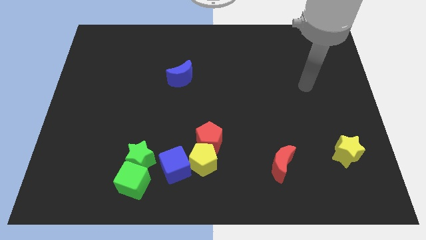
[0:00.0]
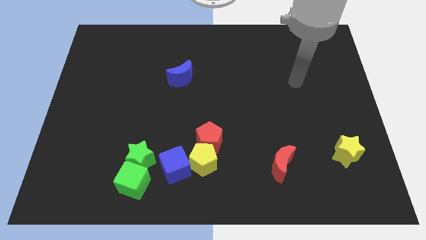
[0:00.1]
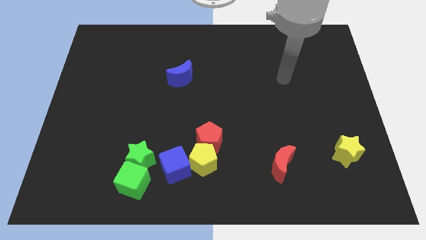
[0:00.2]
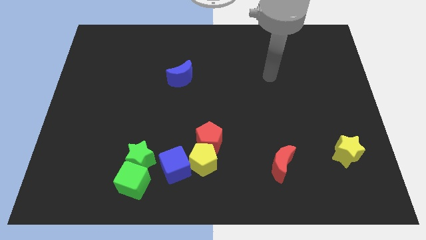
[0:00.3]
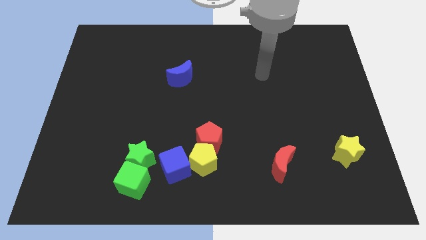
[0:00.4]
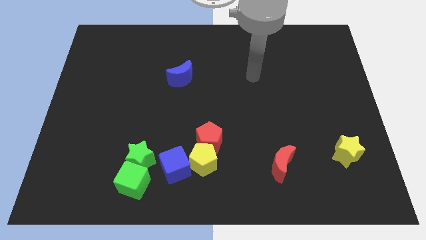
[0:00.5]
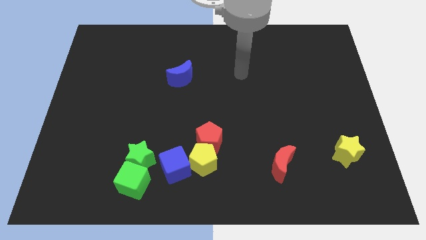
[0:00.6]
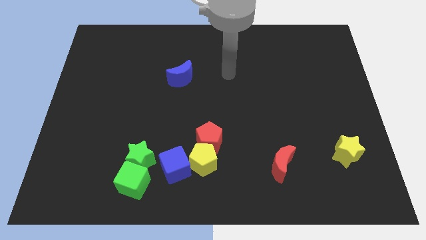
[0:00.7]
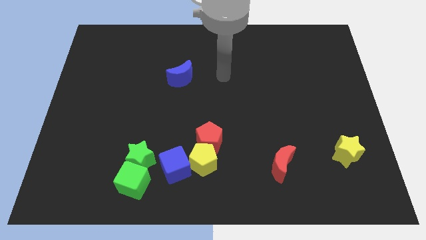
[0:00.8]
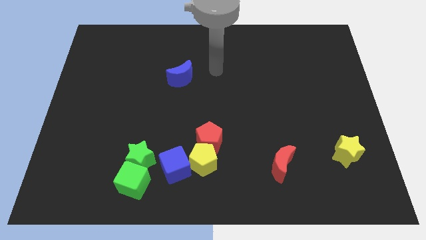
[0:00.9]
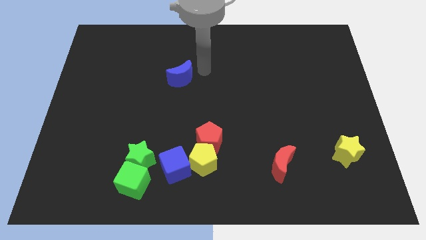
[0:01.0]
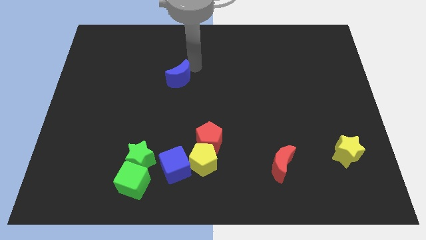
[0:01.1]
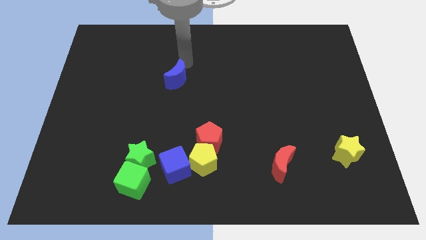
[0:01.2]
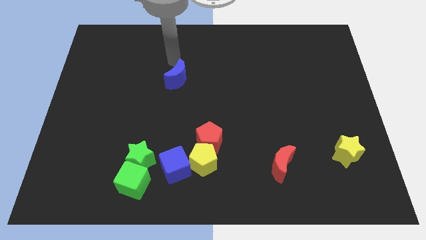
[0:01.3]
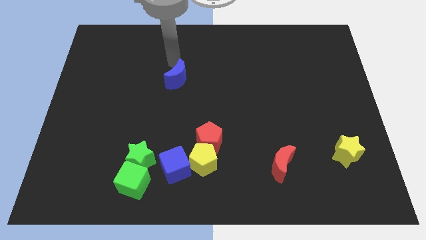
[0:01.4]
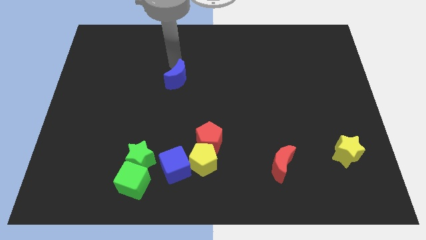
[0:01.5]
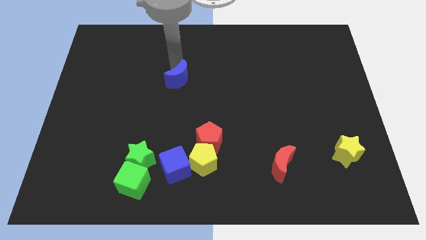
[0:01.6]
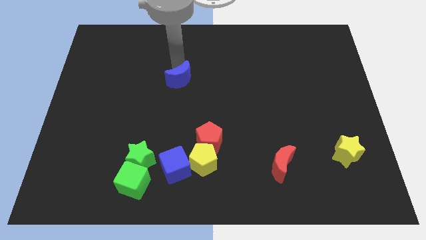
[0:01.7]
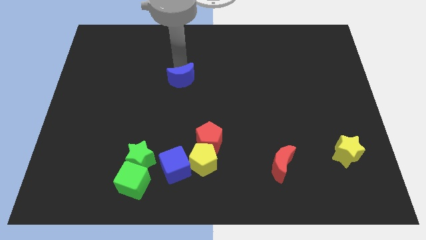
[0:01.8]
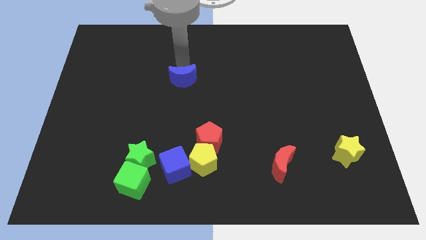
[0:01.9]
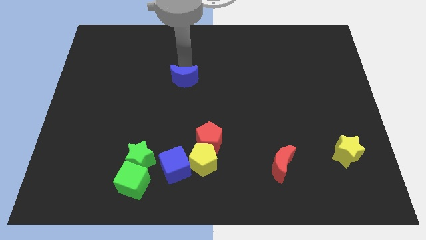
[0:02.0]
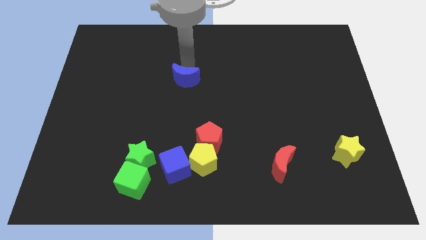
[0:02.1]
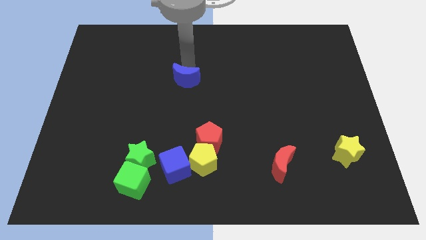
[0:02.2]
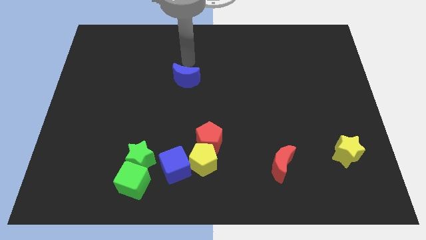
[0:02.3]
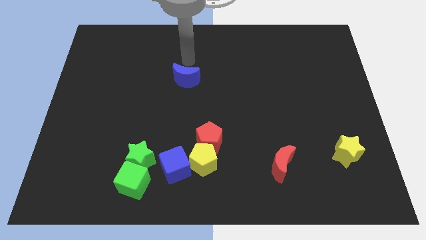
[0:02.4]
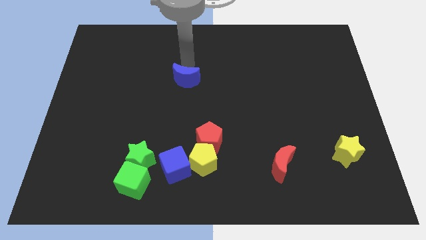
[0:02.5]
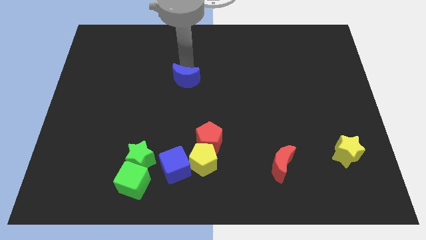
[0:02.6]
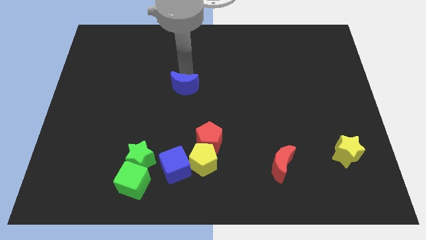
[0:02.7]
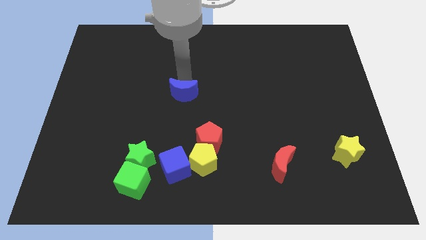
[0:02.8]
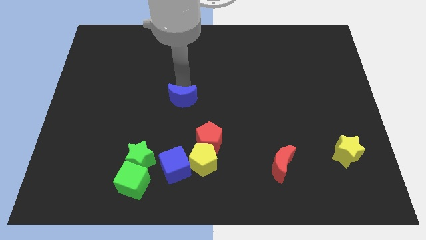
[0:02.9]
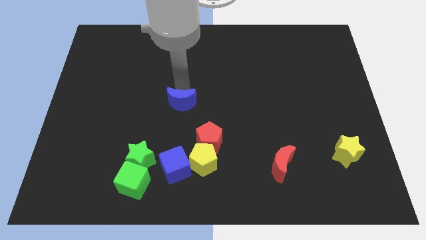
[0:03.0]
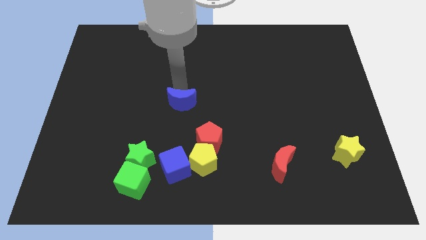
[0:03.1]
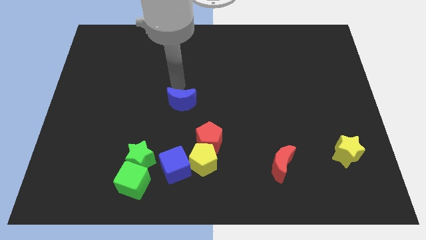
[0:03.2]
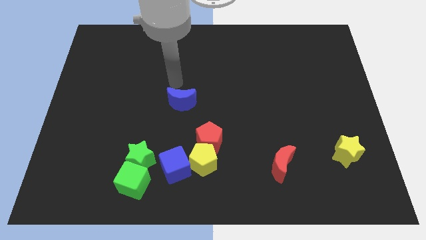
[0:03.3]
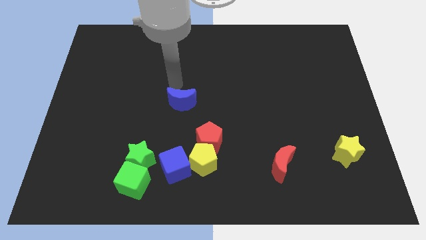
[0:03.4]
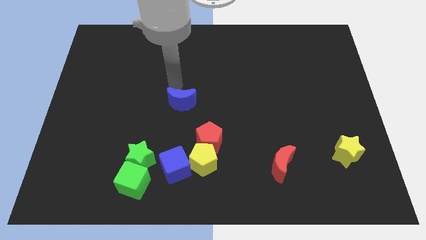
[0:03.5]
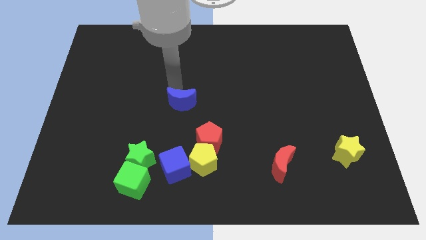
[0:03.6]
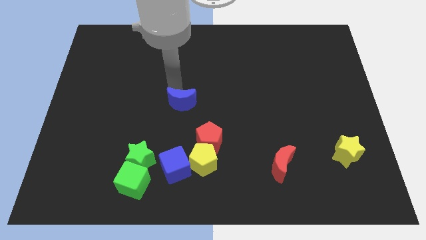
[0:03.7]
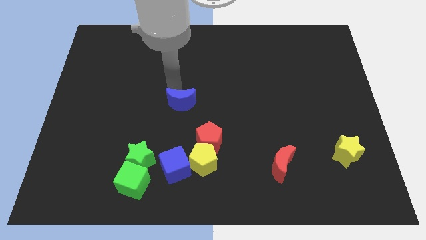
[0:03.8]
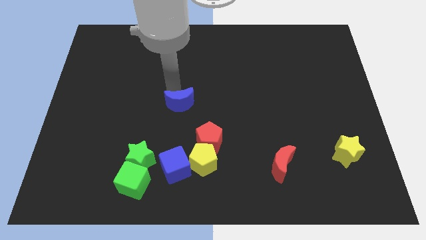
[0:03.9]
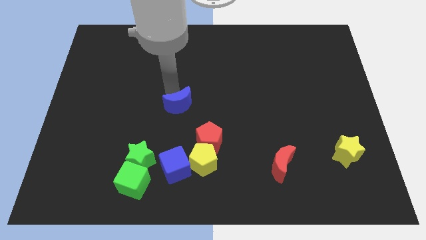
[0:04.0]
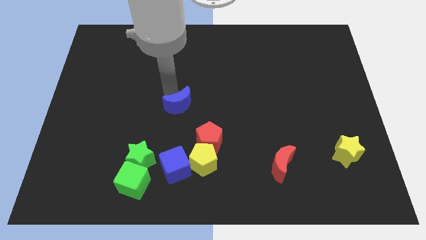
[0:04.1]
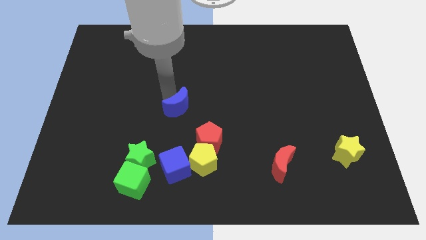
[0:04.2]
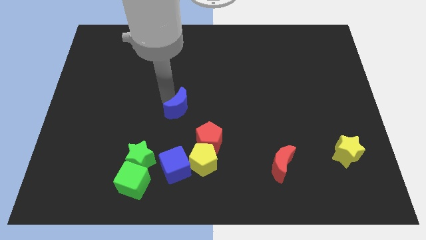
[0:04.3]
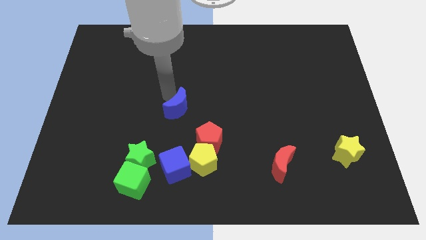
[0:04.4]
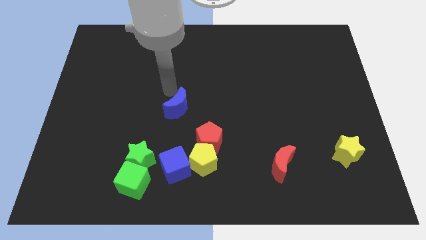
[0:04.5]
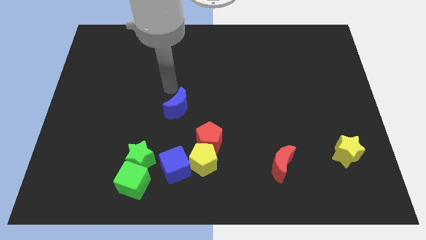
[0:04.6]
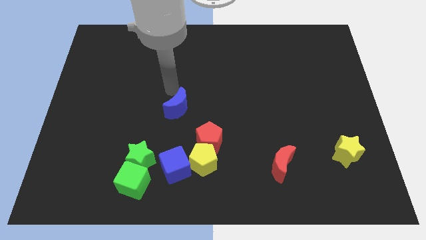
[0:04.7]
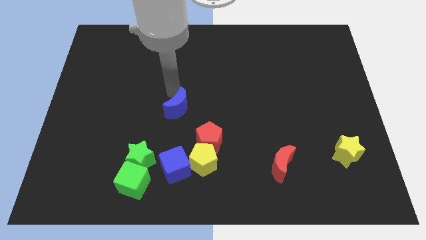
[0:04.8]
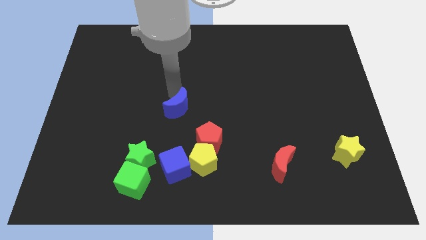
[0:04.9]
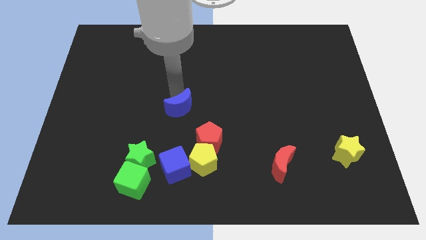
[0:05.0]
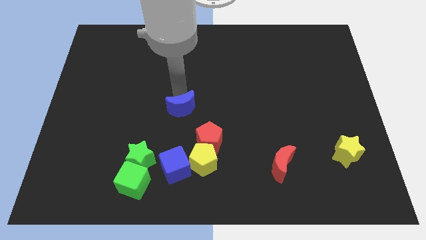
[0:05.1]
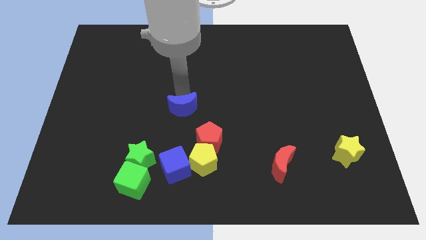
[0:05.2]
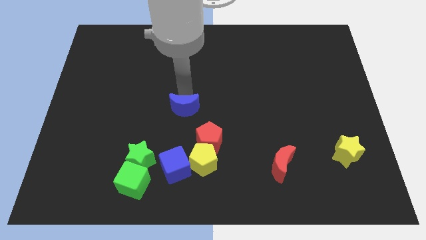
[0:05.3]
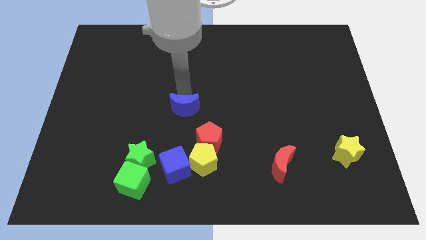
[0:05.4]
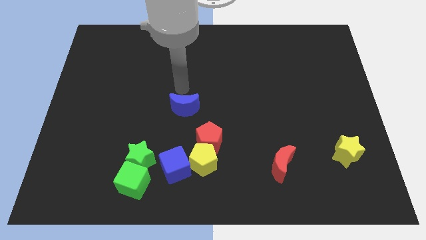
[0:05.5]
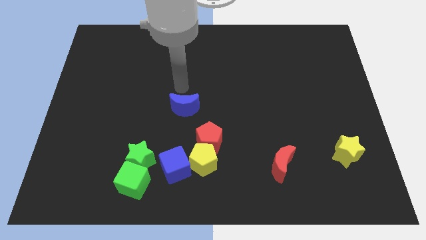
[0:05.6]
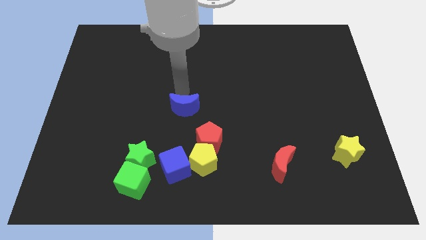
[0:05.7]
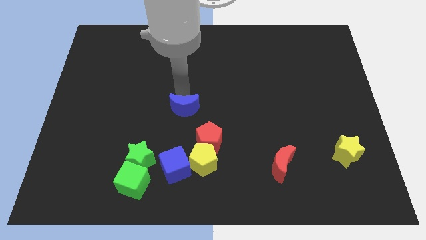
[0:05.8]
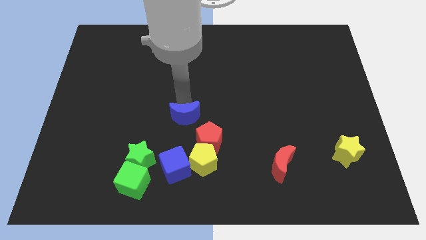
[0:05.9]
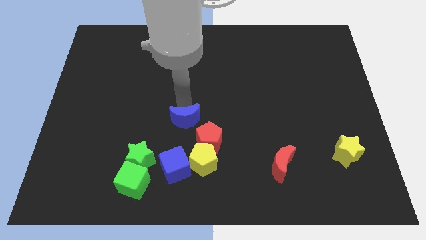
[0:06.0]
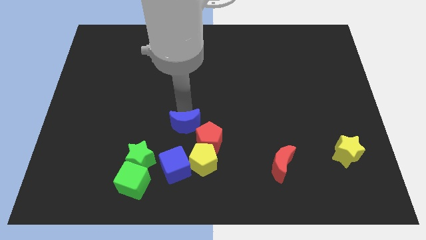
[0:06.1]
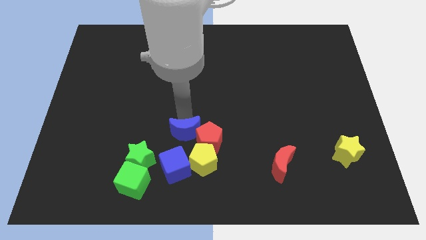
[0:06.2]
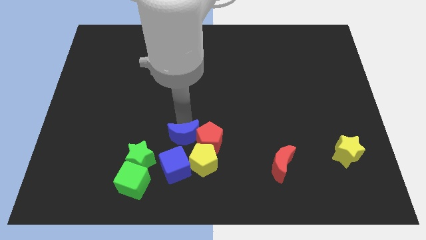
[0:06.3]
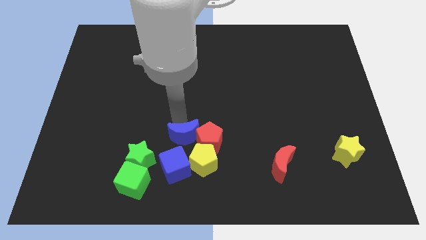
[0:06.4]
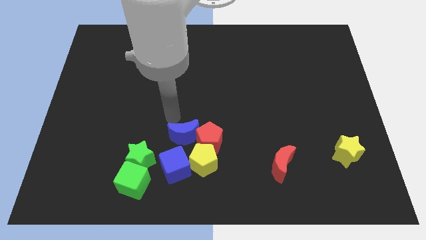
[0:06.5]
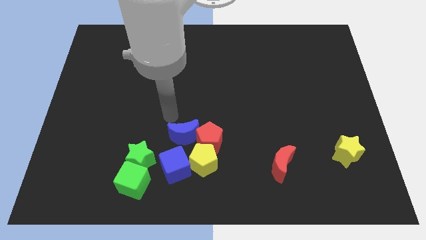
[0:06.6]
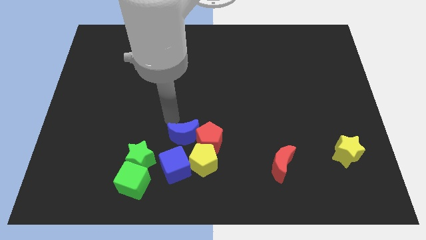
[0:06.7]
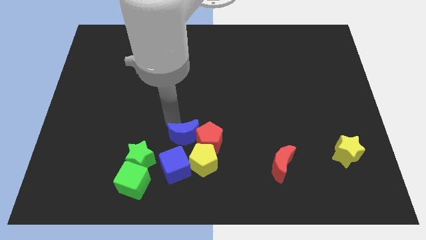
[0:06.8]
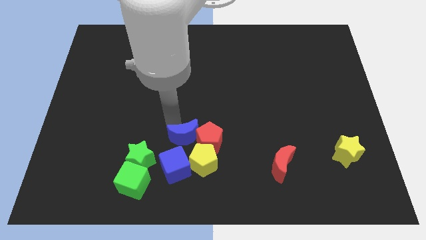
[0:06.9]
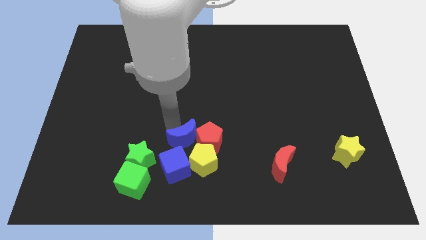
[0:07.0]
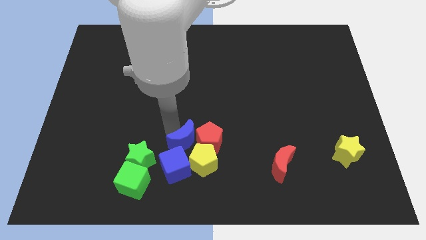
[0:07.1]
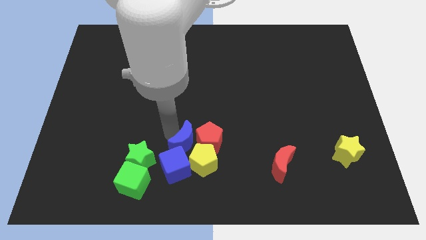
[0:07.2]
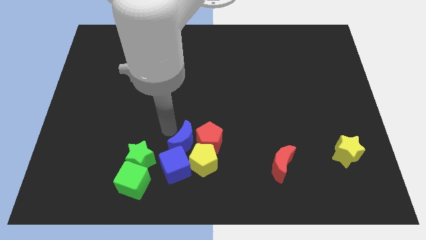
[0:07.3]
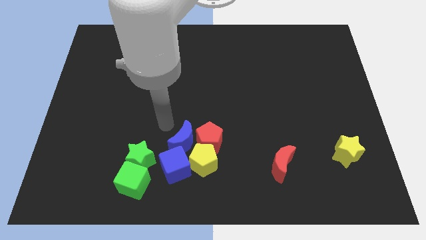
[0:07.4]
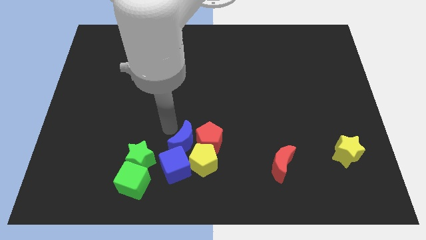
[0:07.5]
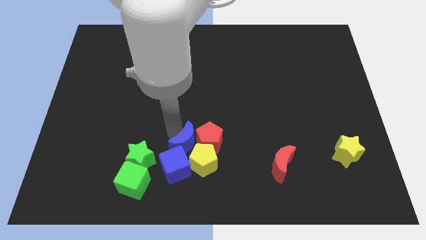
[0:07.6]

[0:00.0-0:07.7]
push the blue moon to the yellow pentagon

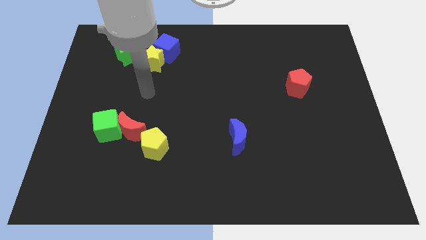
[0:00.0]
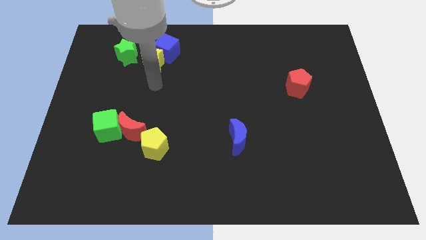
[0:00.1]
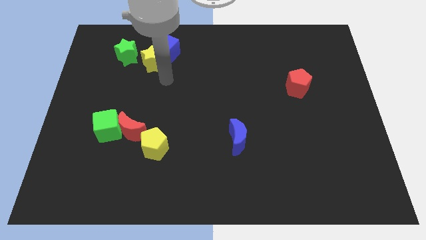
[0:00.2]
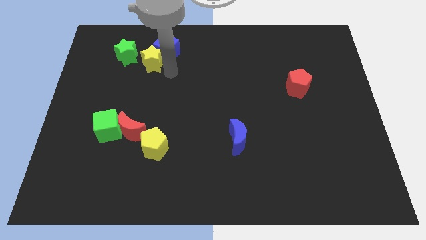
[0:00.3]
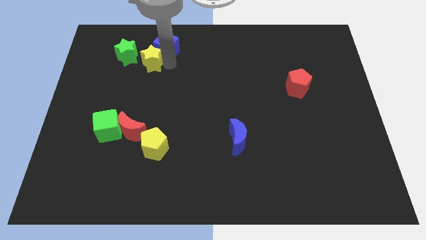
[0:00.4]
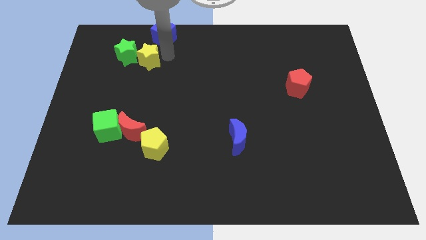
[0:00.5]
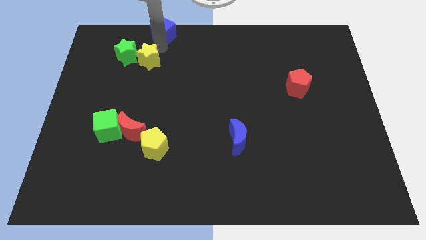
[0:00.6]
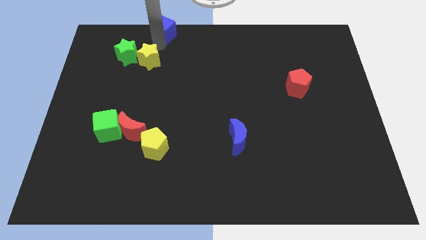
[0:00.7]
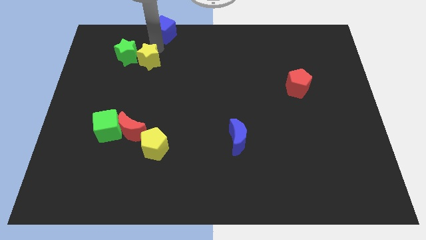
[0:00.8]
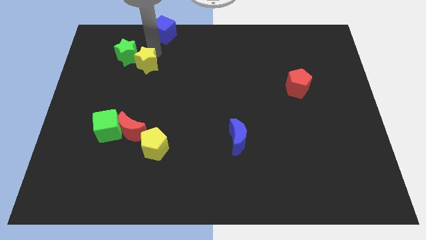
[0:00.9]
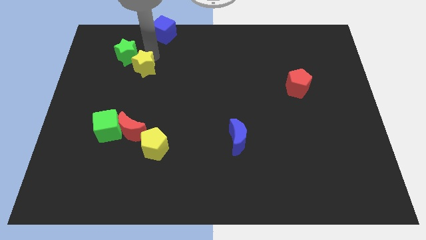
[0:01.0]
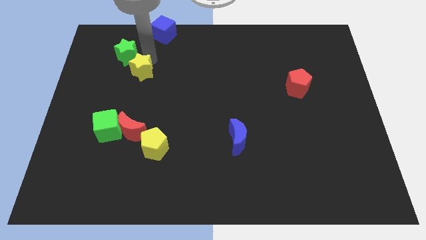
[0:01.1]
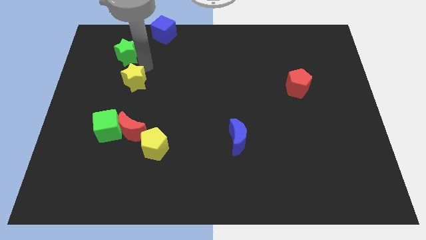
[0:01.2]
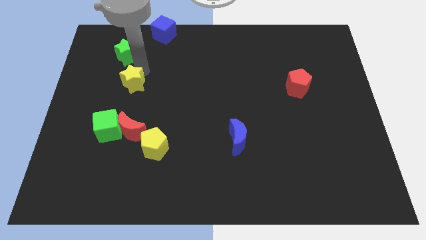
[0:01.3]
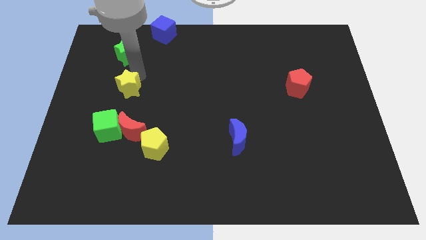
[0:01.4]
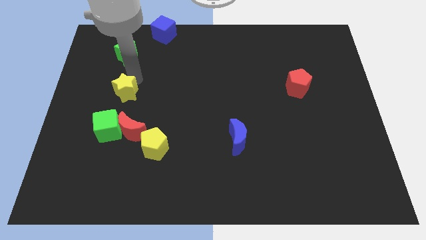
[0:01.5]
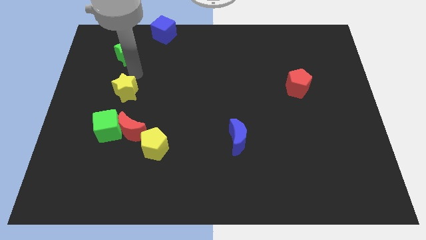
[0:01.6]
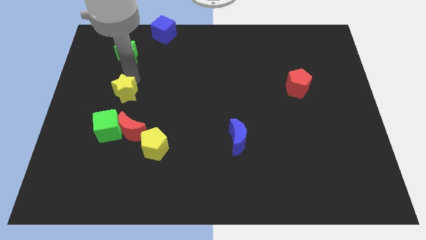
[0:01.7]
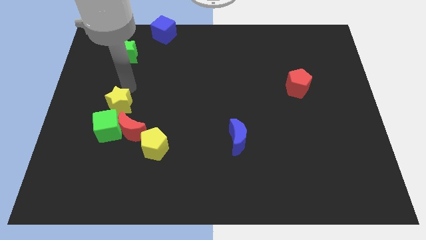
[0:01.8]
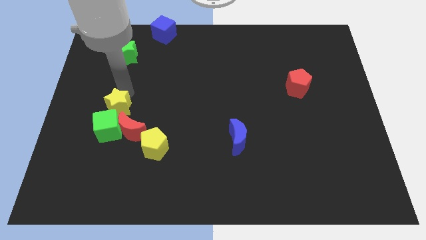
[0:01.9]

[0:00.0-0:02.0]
put the yellow star next to the green cube
